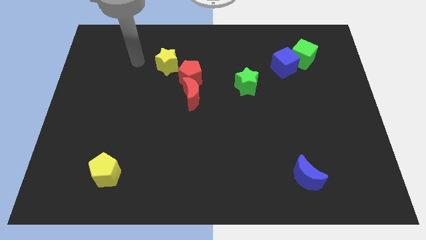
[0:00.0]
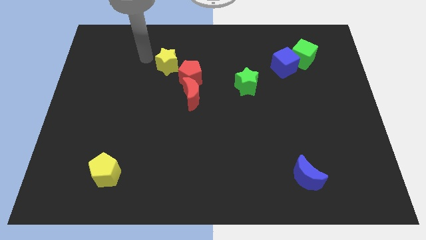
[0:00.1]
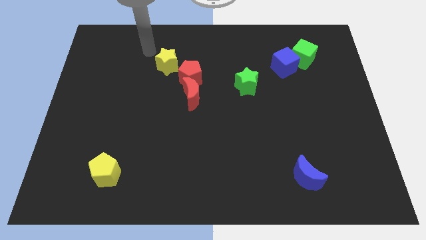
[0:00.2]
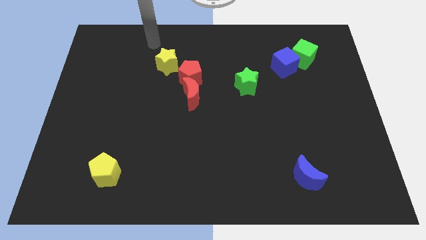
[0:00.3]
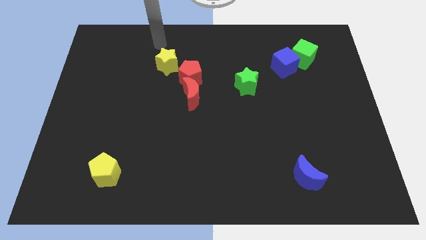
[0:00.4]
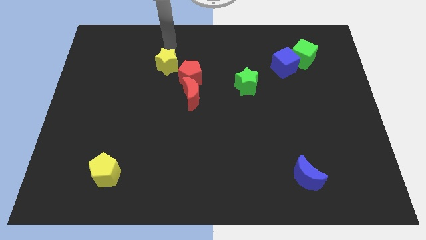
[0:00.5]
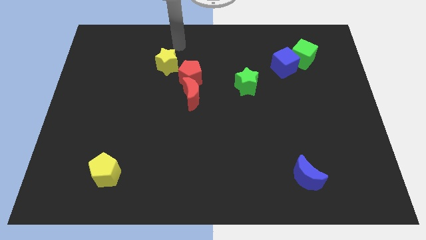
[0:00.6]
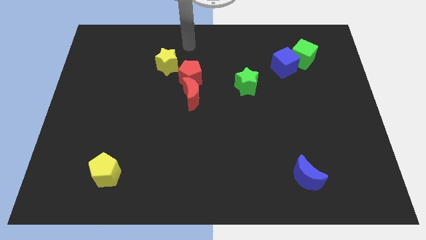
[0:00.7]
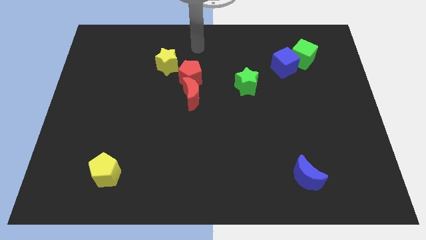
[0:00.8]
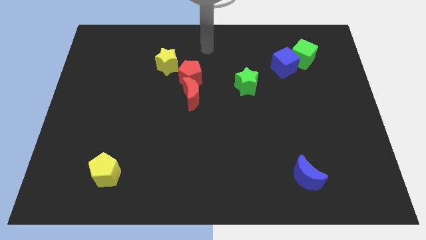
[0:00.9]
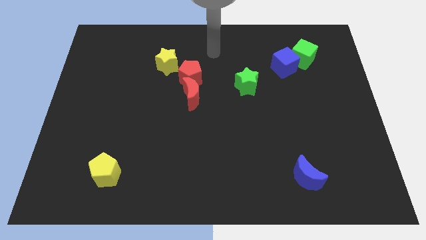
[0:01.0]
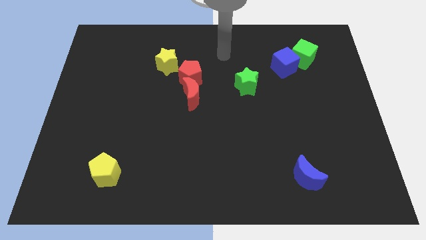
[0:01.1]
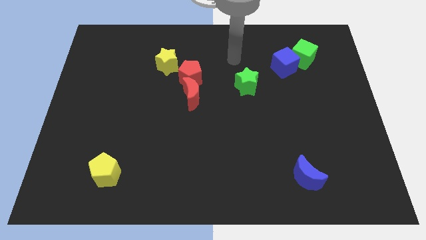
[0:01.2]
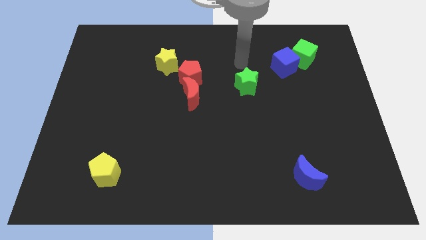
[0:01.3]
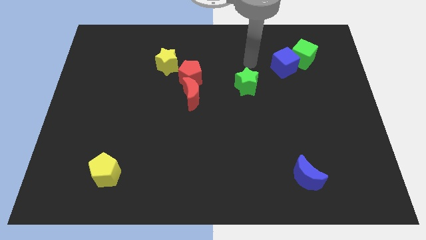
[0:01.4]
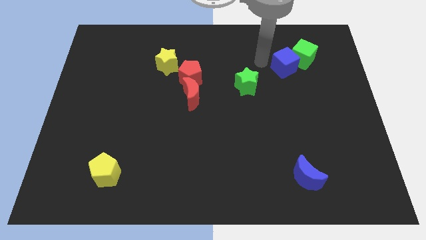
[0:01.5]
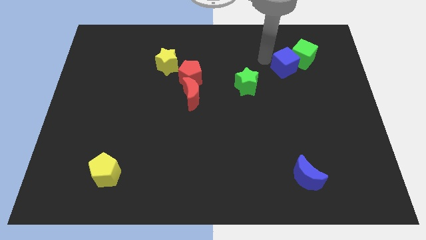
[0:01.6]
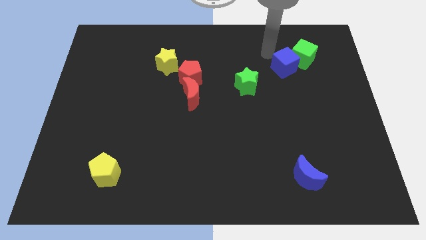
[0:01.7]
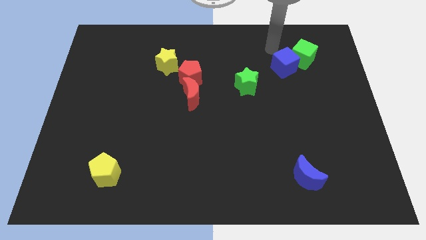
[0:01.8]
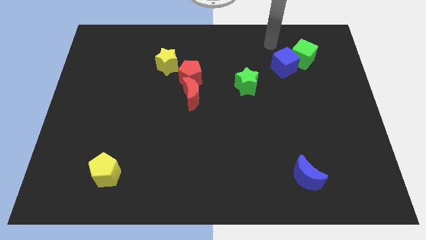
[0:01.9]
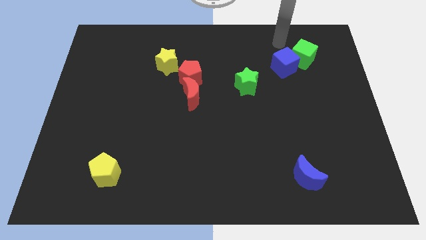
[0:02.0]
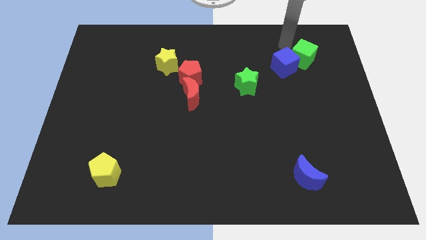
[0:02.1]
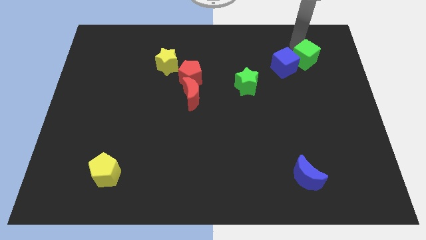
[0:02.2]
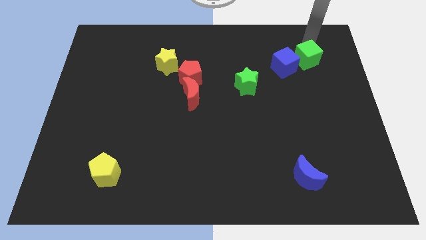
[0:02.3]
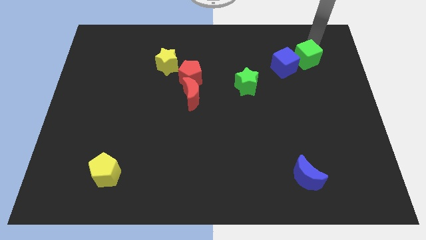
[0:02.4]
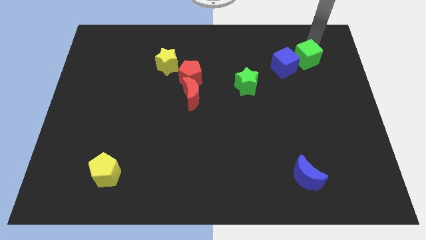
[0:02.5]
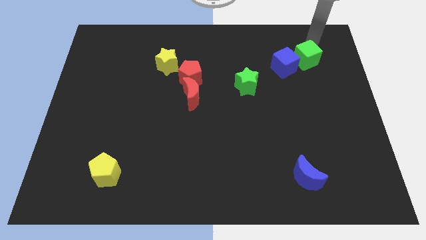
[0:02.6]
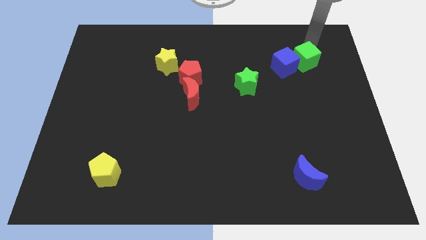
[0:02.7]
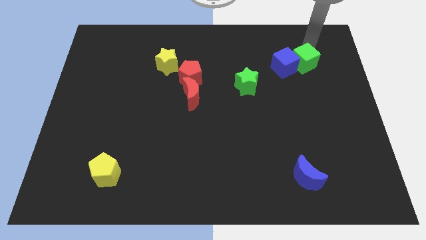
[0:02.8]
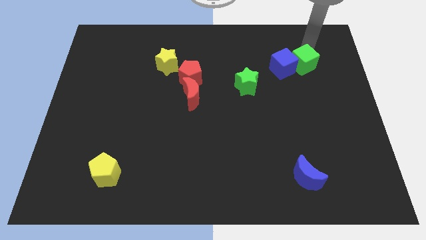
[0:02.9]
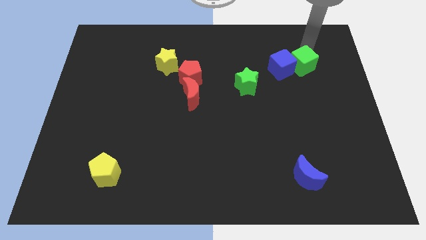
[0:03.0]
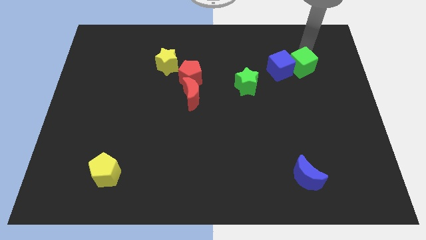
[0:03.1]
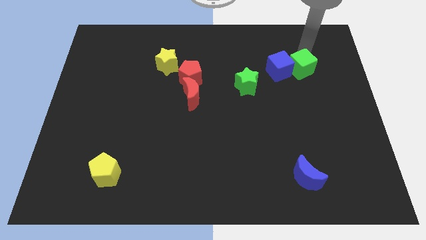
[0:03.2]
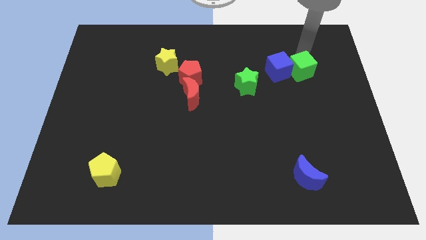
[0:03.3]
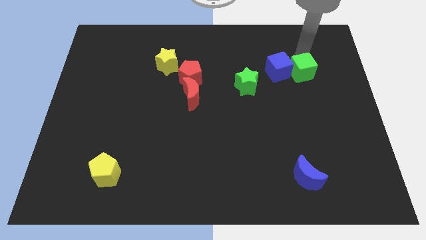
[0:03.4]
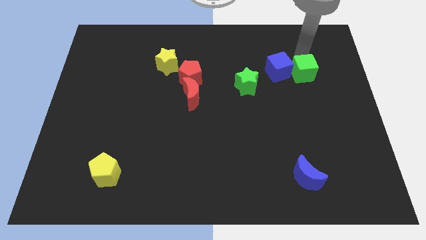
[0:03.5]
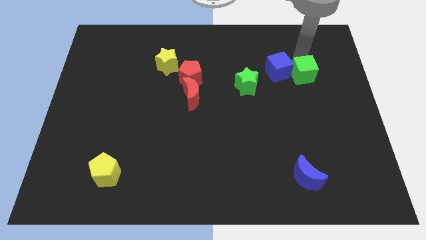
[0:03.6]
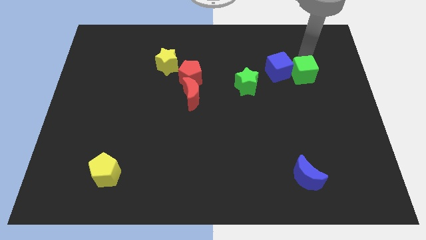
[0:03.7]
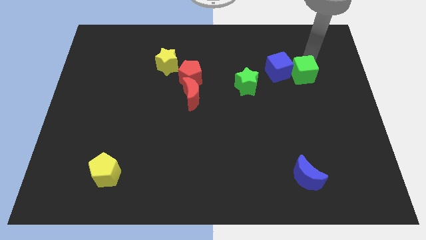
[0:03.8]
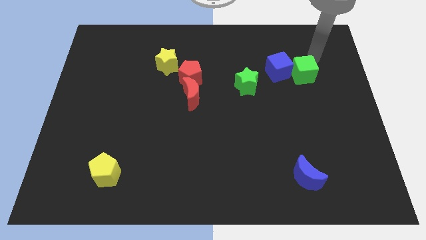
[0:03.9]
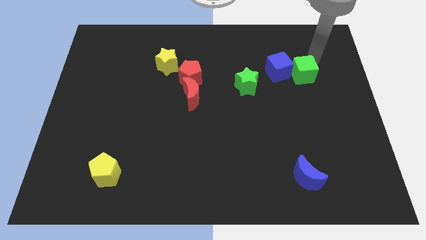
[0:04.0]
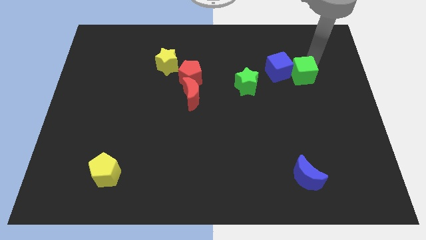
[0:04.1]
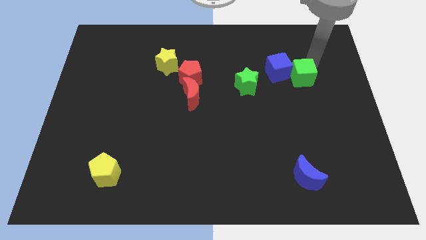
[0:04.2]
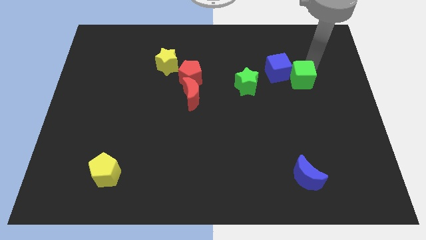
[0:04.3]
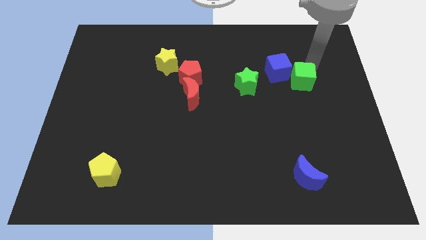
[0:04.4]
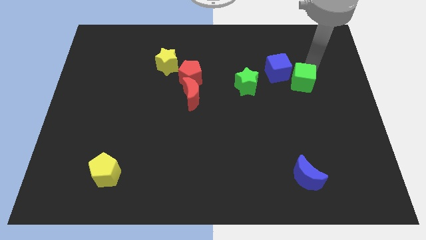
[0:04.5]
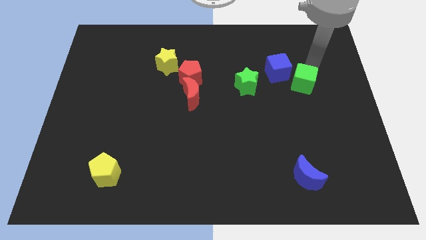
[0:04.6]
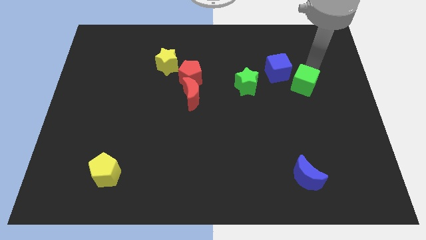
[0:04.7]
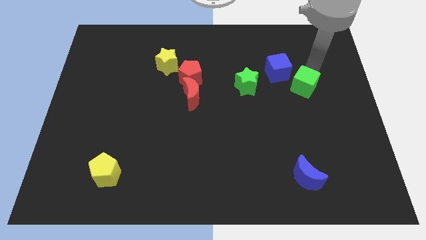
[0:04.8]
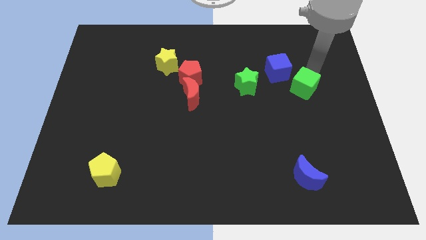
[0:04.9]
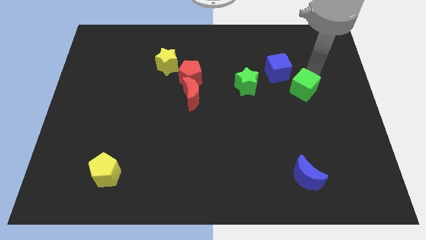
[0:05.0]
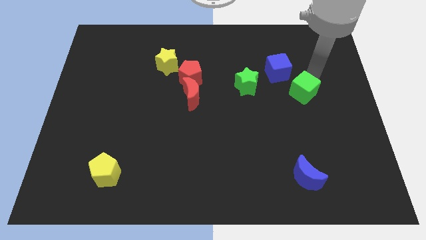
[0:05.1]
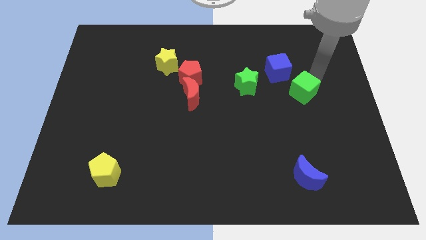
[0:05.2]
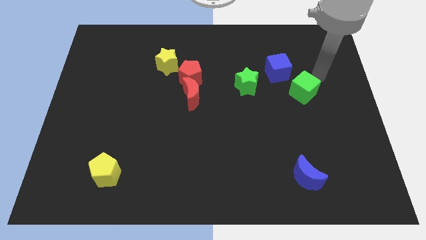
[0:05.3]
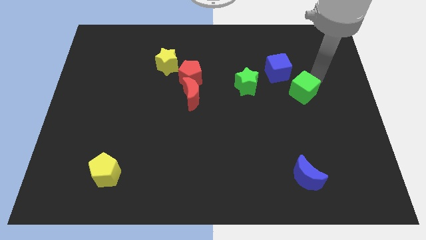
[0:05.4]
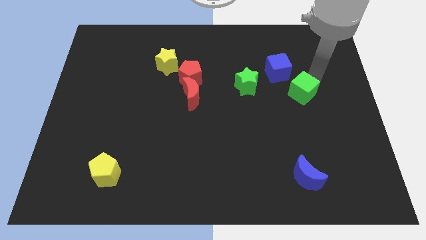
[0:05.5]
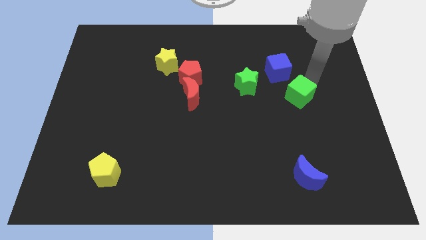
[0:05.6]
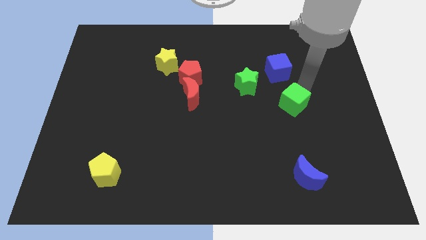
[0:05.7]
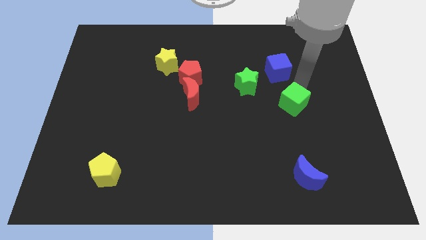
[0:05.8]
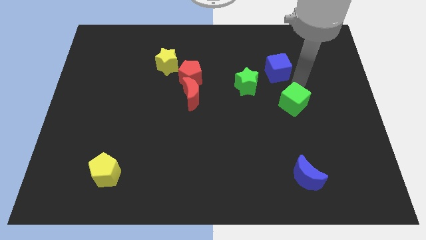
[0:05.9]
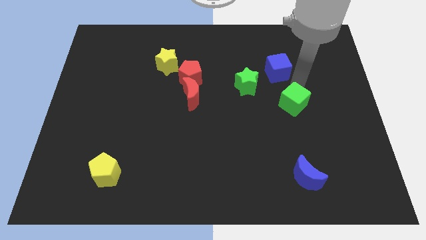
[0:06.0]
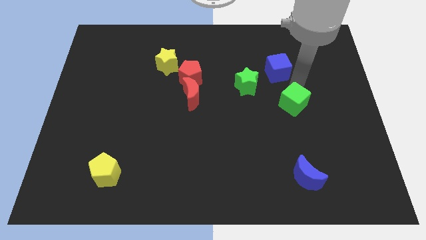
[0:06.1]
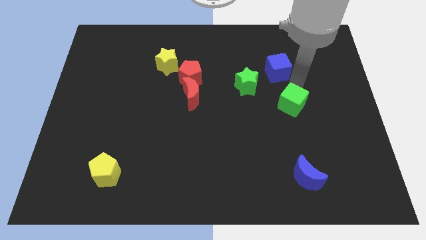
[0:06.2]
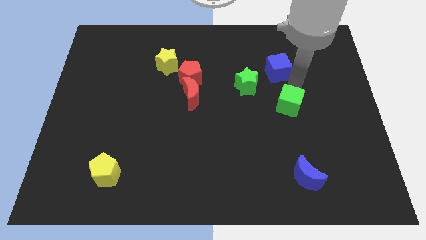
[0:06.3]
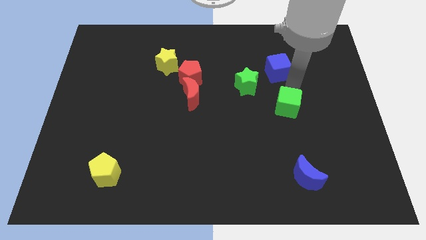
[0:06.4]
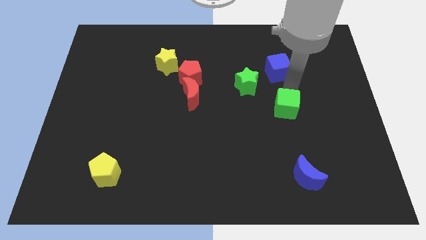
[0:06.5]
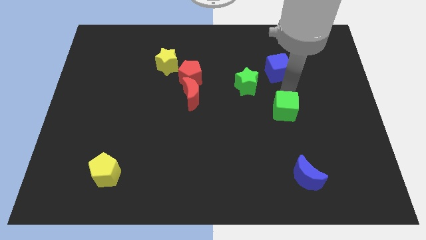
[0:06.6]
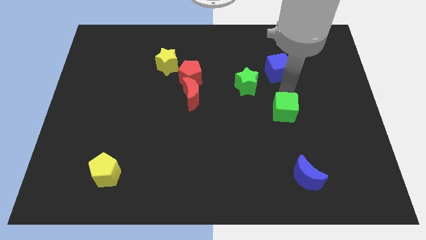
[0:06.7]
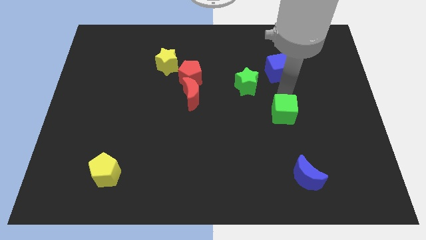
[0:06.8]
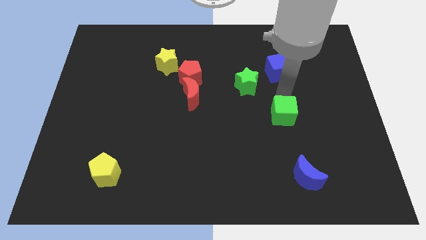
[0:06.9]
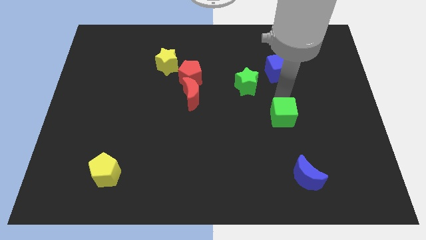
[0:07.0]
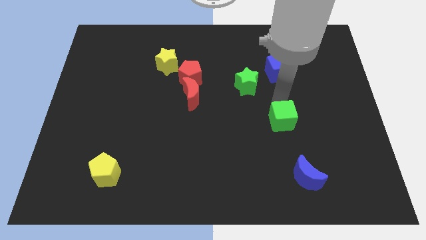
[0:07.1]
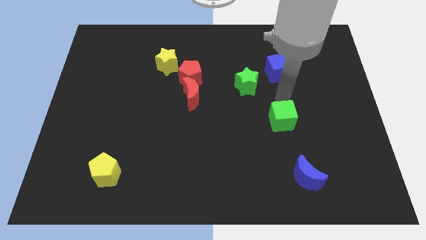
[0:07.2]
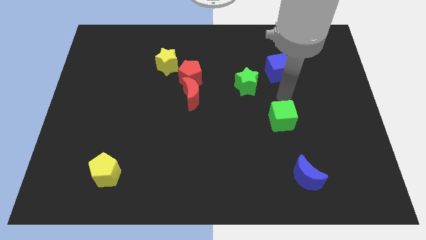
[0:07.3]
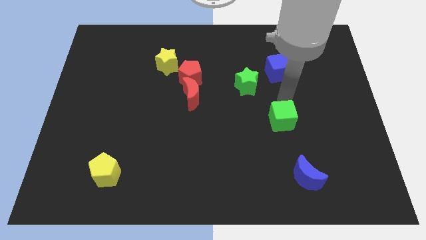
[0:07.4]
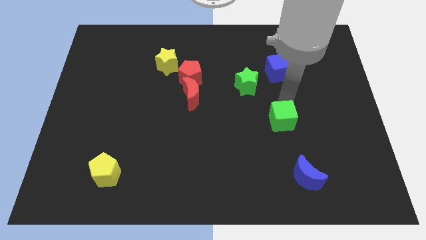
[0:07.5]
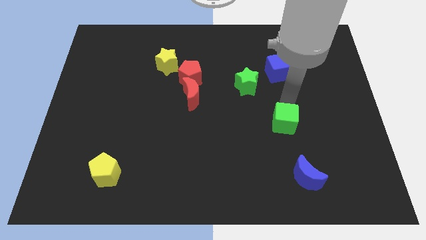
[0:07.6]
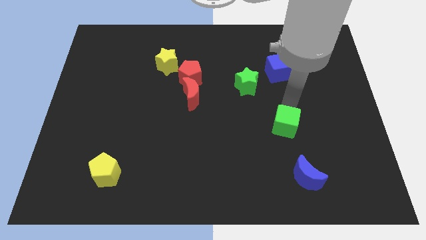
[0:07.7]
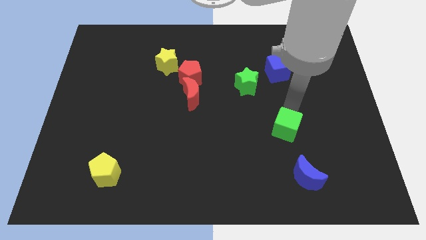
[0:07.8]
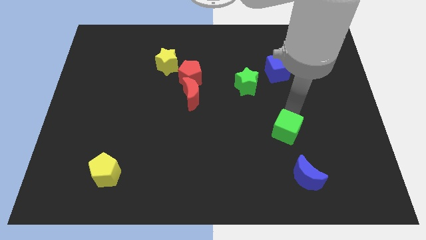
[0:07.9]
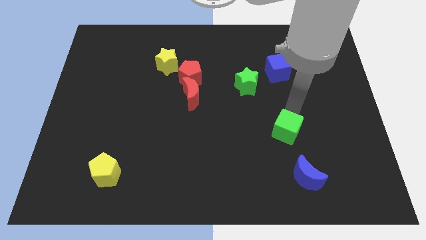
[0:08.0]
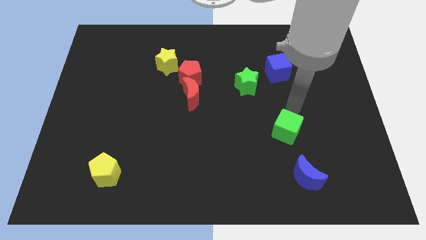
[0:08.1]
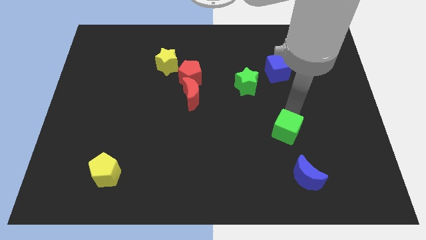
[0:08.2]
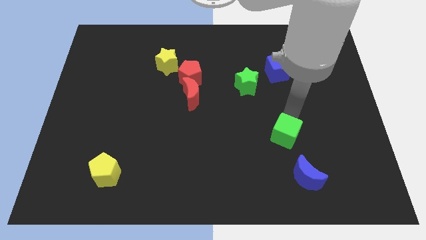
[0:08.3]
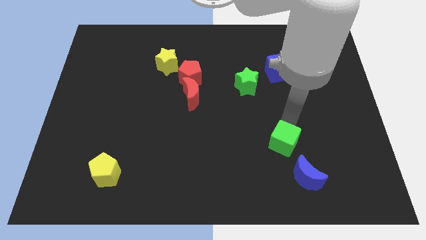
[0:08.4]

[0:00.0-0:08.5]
put the green cube to the top left of the blue moon
